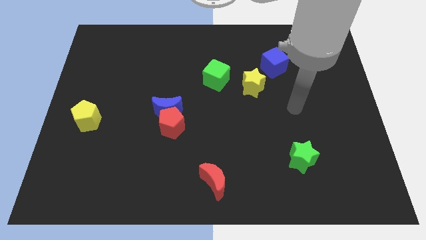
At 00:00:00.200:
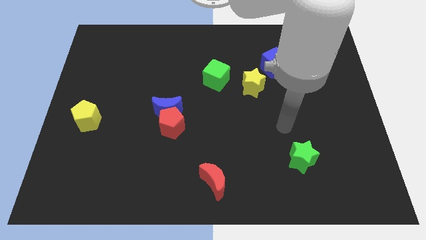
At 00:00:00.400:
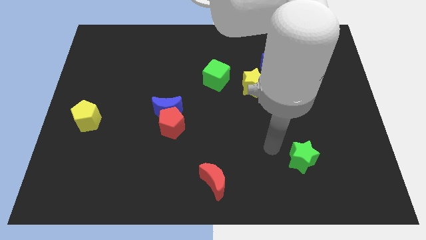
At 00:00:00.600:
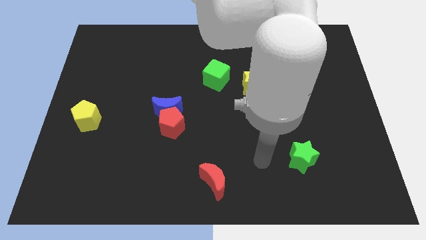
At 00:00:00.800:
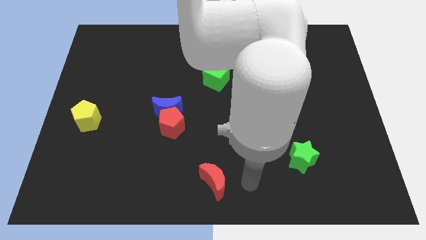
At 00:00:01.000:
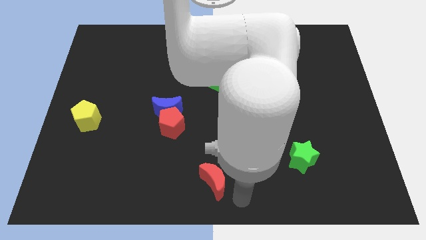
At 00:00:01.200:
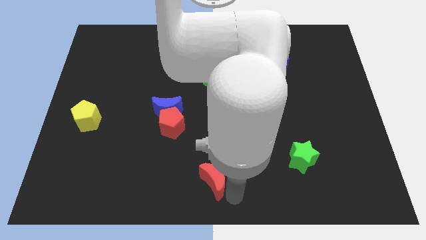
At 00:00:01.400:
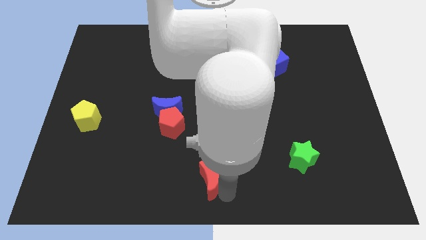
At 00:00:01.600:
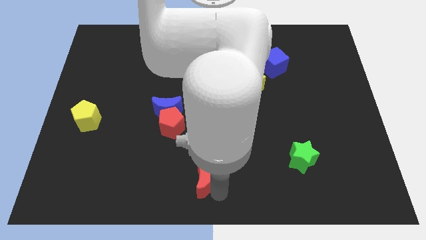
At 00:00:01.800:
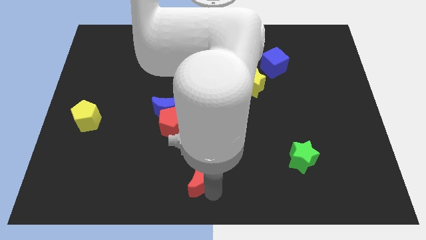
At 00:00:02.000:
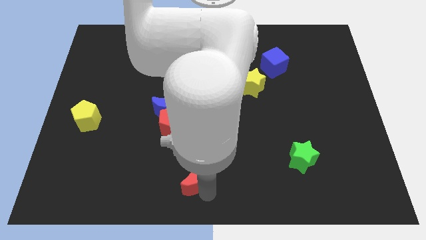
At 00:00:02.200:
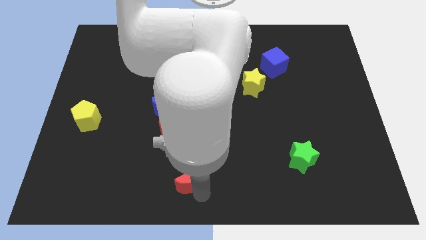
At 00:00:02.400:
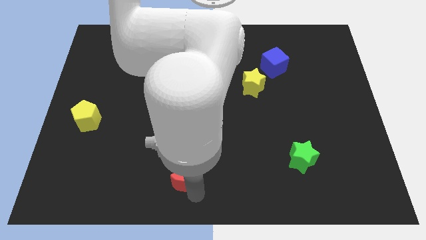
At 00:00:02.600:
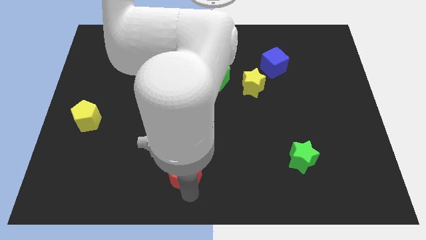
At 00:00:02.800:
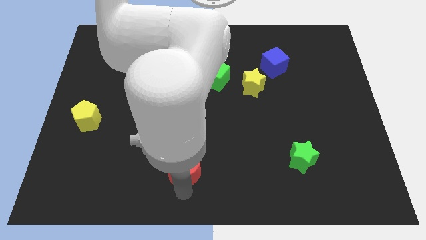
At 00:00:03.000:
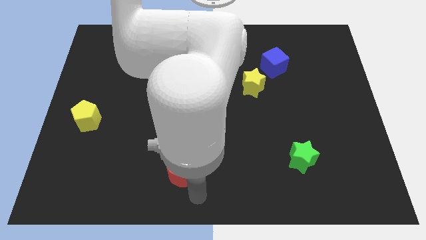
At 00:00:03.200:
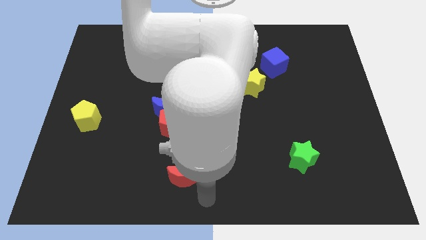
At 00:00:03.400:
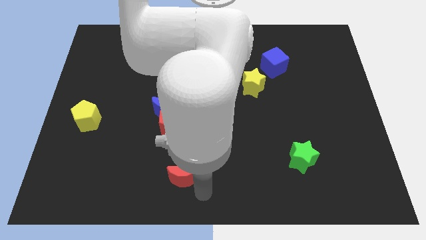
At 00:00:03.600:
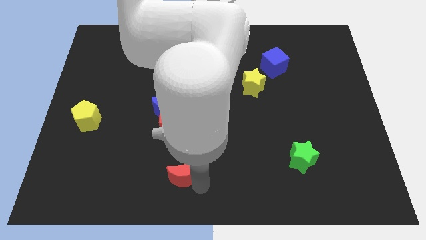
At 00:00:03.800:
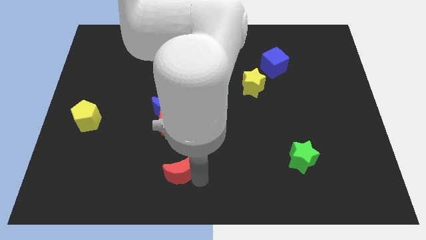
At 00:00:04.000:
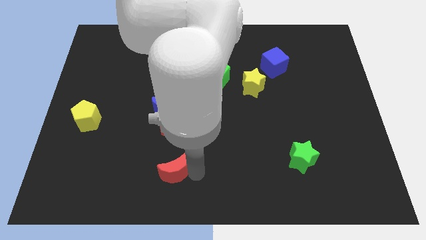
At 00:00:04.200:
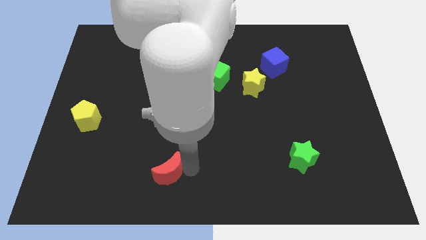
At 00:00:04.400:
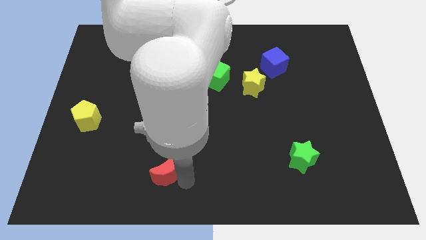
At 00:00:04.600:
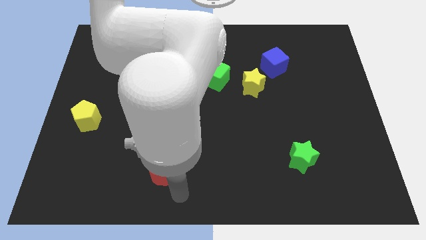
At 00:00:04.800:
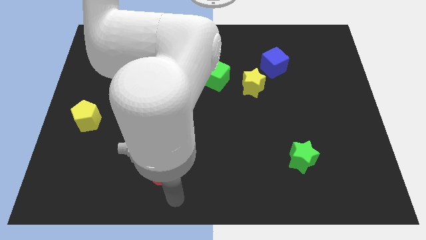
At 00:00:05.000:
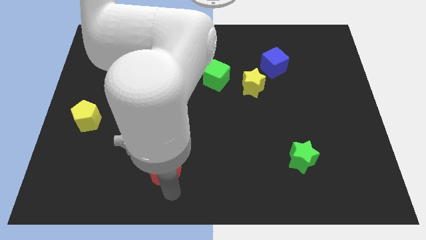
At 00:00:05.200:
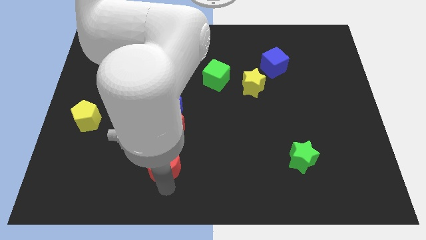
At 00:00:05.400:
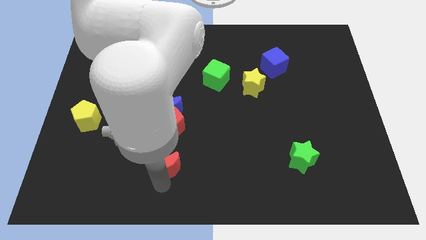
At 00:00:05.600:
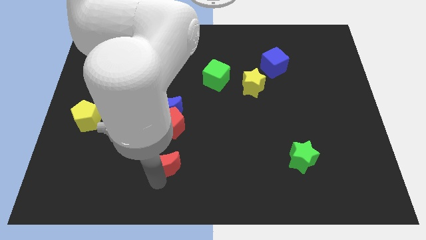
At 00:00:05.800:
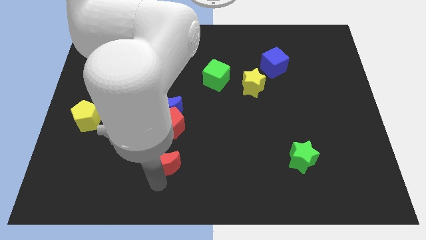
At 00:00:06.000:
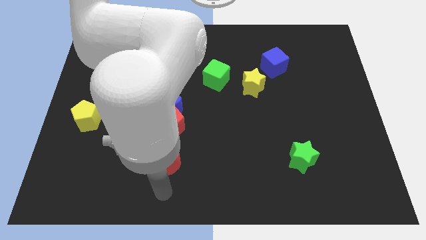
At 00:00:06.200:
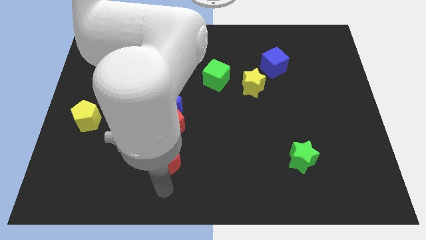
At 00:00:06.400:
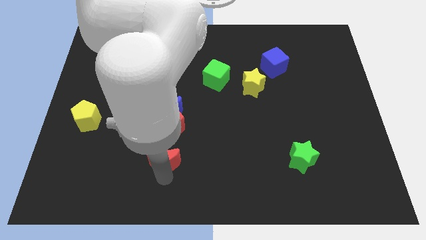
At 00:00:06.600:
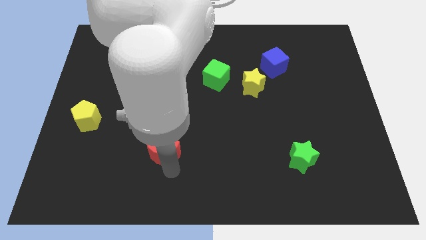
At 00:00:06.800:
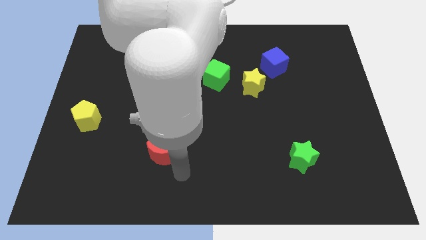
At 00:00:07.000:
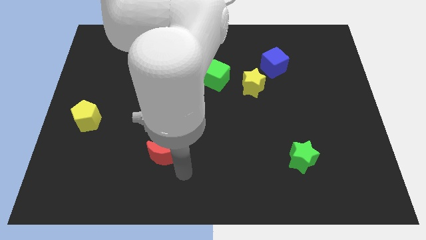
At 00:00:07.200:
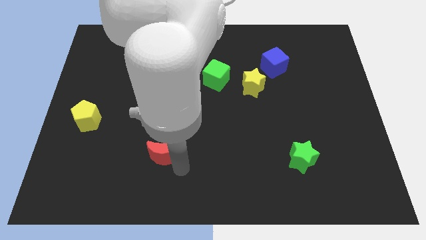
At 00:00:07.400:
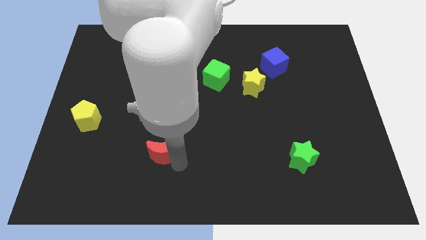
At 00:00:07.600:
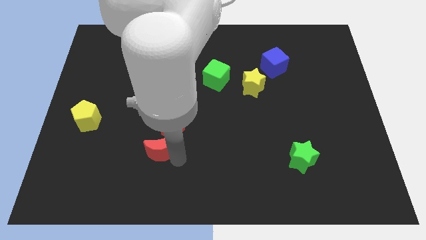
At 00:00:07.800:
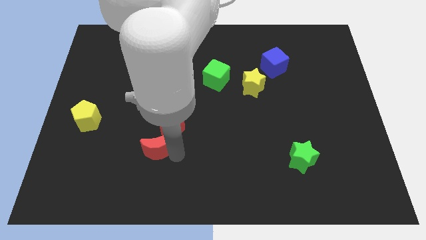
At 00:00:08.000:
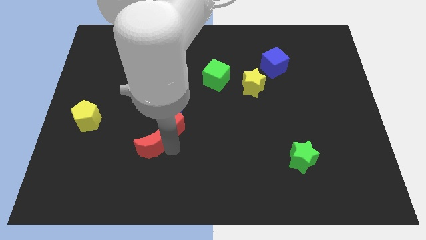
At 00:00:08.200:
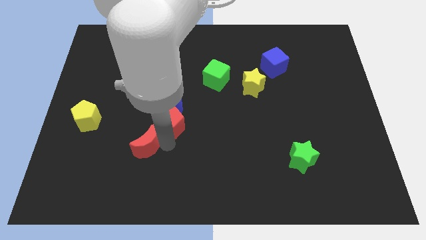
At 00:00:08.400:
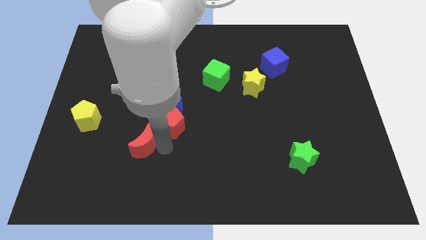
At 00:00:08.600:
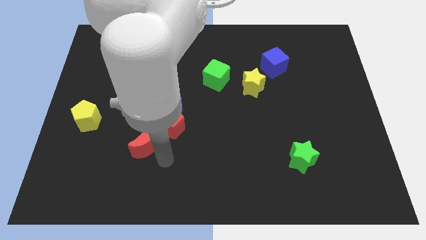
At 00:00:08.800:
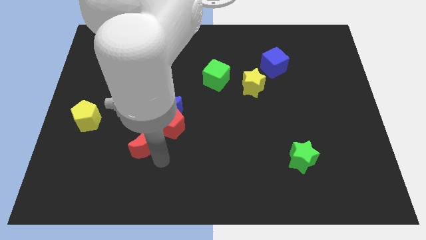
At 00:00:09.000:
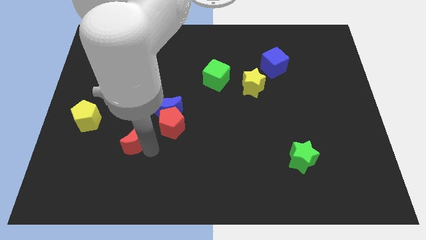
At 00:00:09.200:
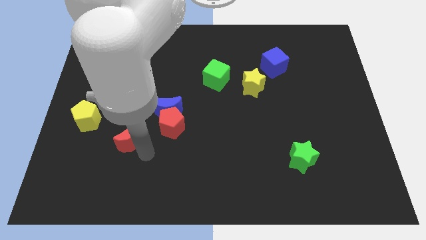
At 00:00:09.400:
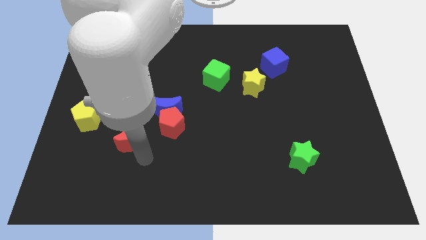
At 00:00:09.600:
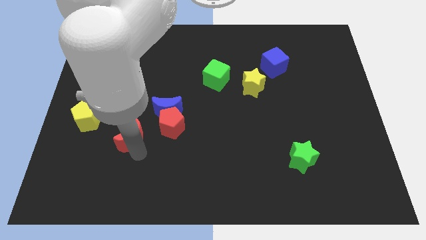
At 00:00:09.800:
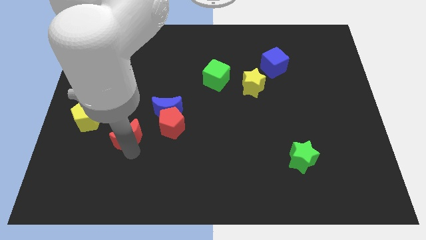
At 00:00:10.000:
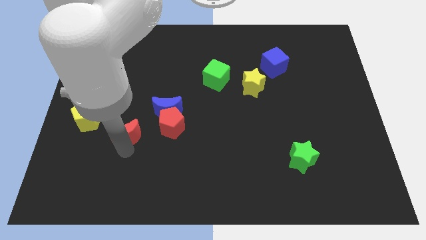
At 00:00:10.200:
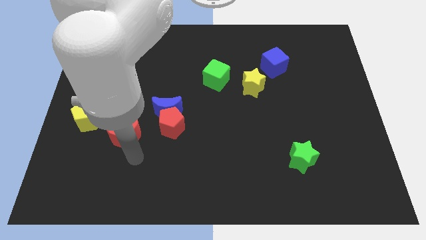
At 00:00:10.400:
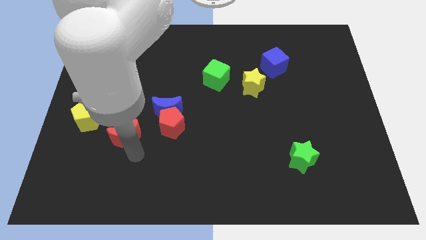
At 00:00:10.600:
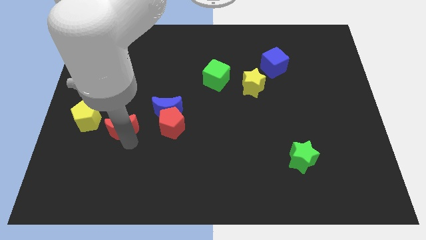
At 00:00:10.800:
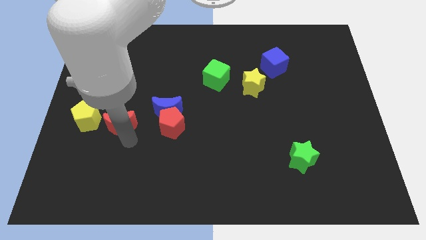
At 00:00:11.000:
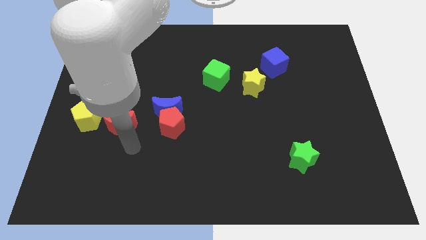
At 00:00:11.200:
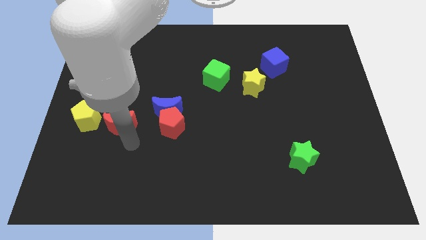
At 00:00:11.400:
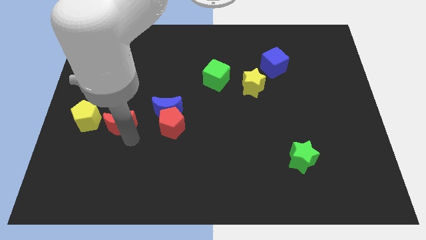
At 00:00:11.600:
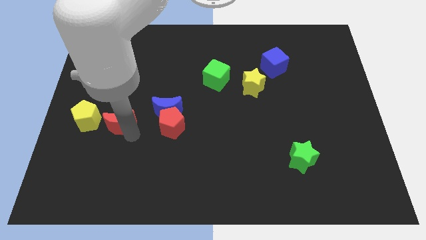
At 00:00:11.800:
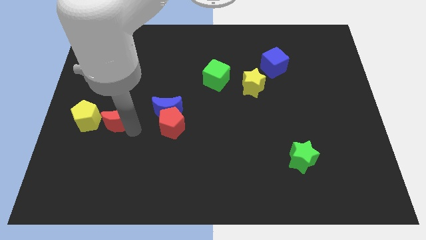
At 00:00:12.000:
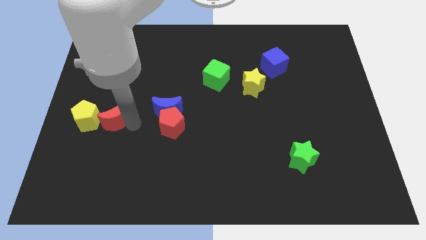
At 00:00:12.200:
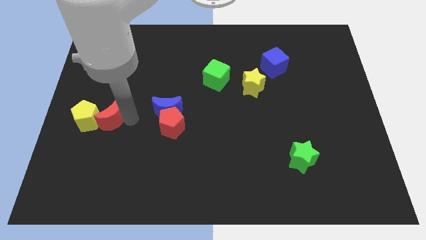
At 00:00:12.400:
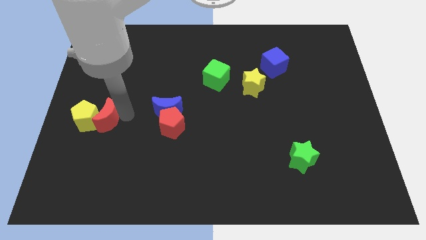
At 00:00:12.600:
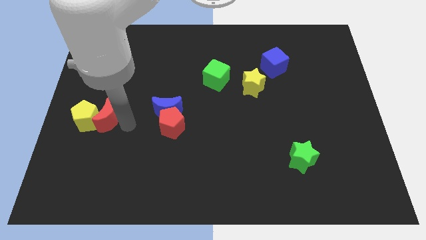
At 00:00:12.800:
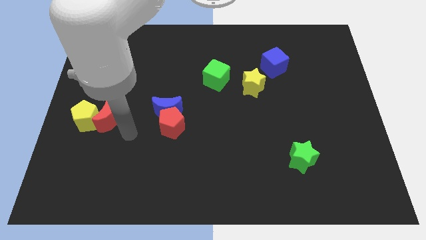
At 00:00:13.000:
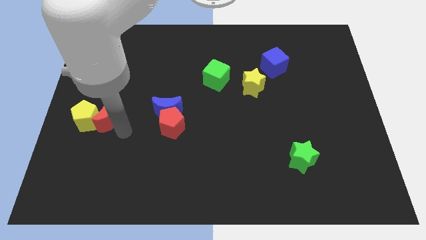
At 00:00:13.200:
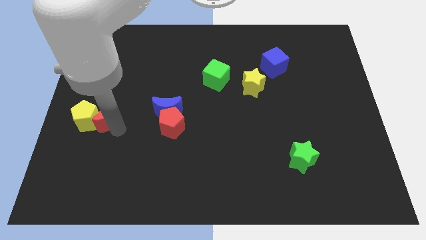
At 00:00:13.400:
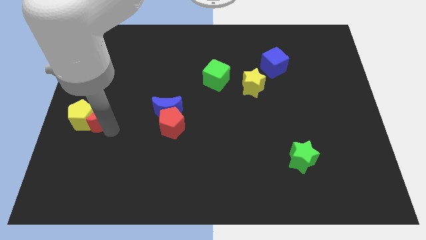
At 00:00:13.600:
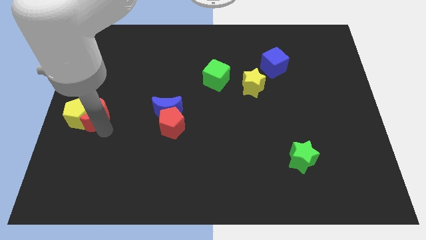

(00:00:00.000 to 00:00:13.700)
move the red moon to the center left
